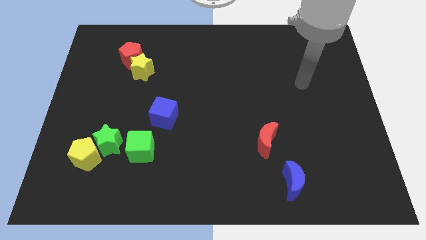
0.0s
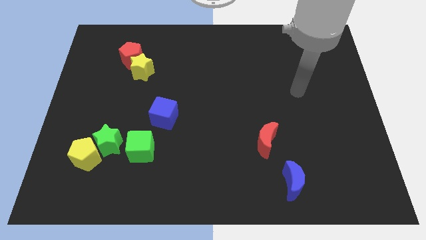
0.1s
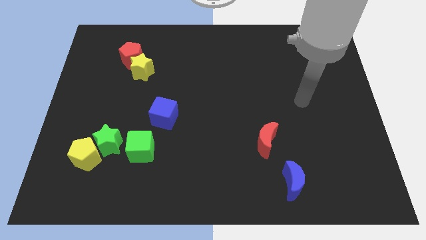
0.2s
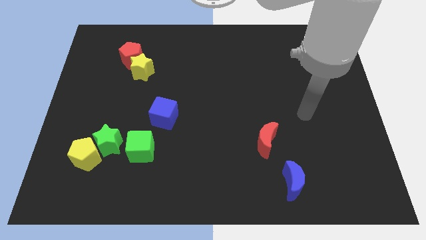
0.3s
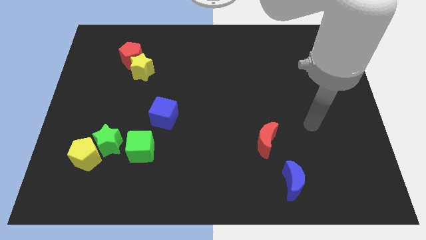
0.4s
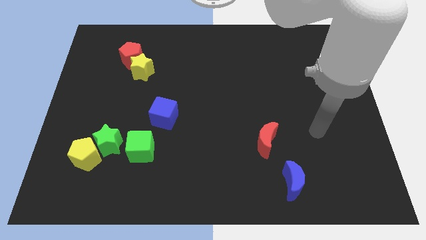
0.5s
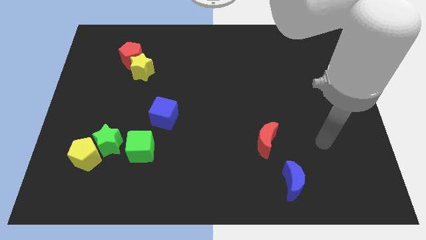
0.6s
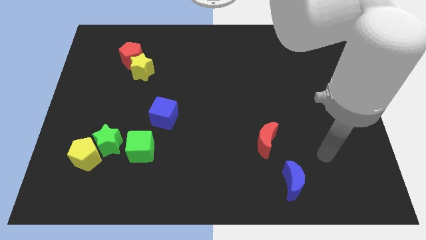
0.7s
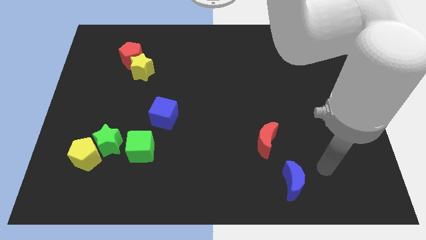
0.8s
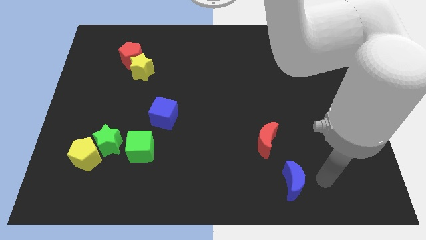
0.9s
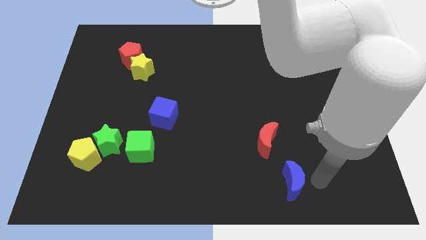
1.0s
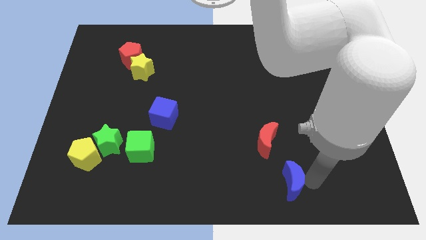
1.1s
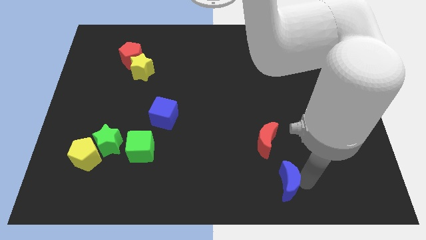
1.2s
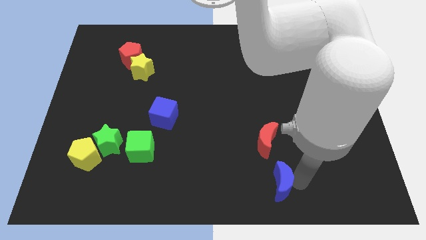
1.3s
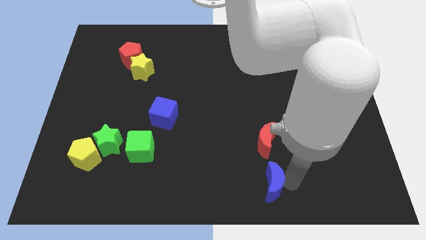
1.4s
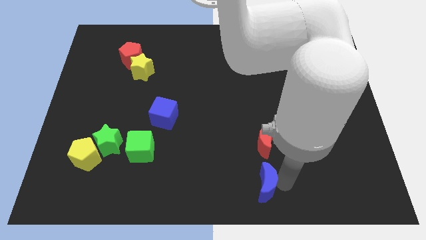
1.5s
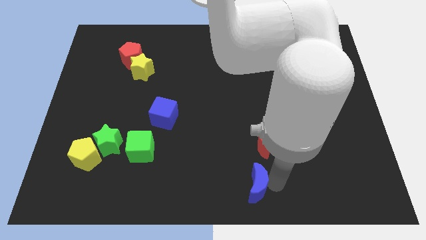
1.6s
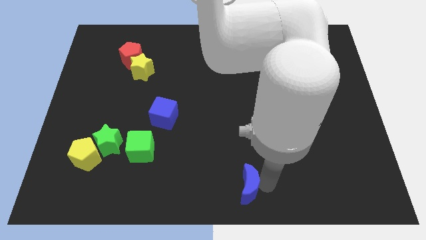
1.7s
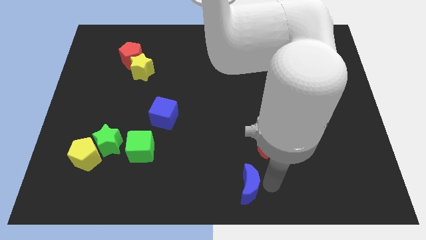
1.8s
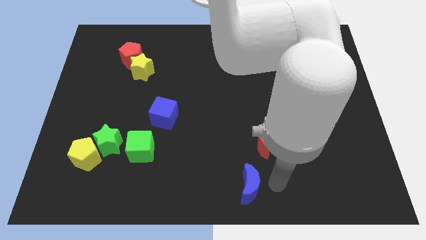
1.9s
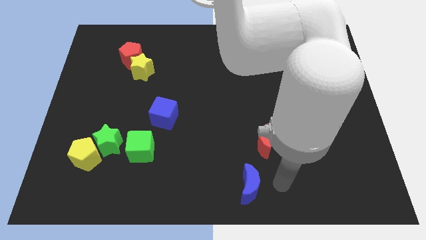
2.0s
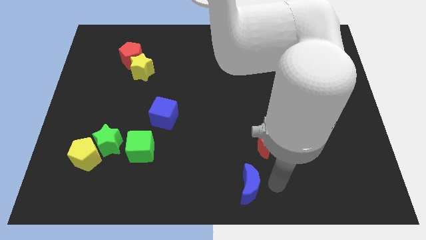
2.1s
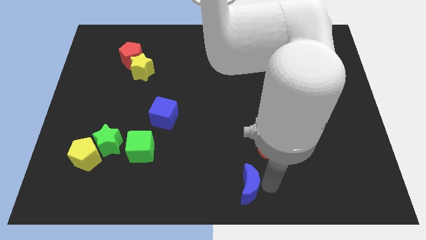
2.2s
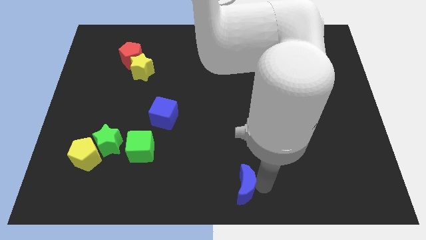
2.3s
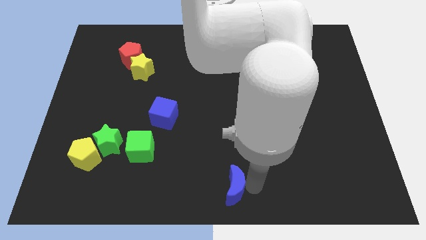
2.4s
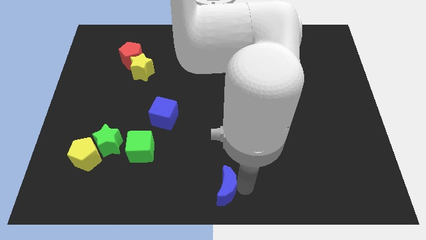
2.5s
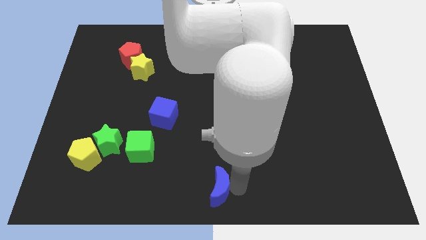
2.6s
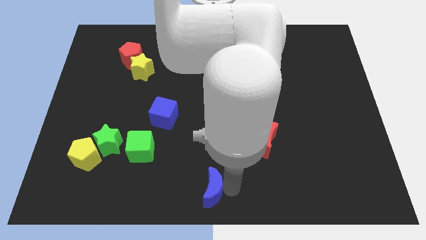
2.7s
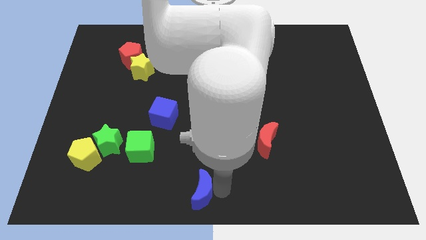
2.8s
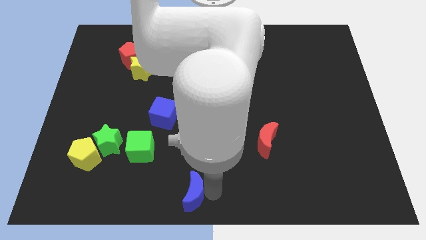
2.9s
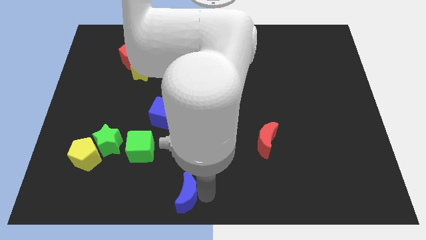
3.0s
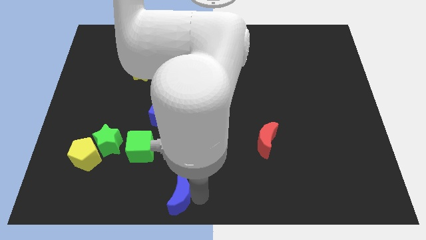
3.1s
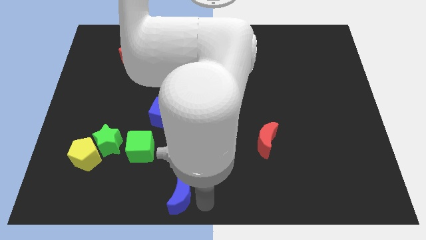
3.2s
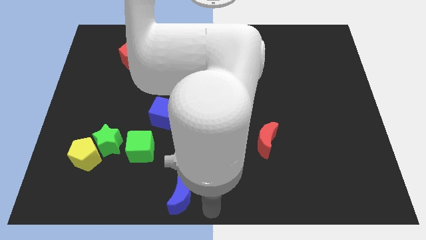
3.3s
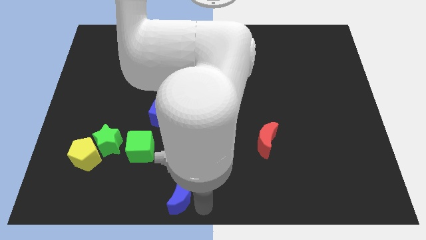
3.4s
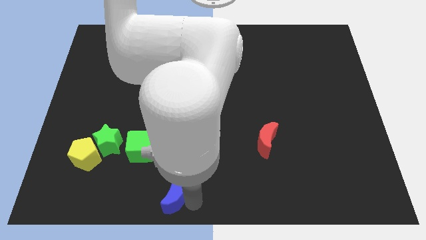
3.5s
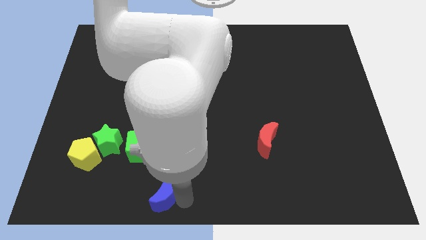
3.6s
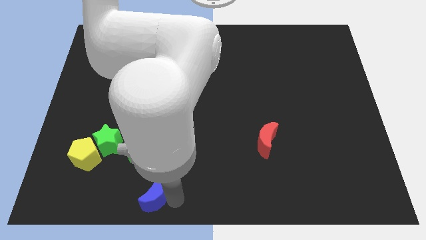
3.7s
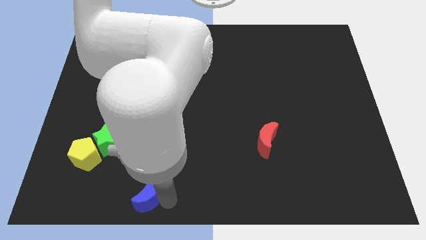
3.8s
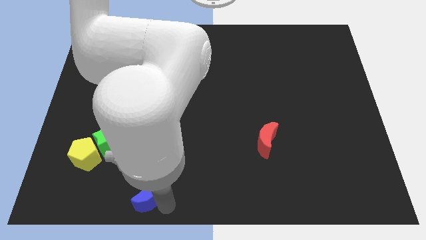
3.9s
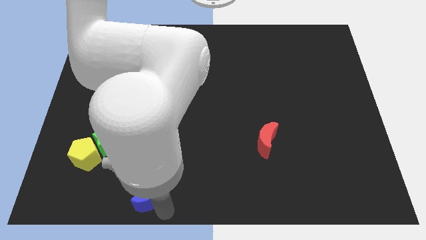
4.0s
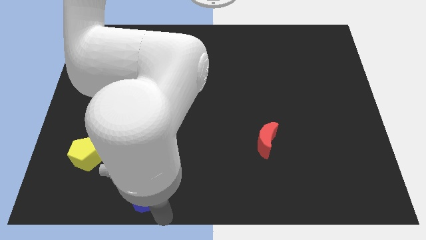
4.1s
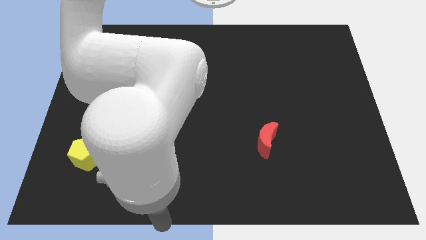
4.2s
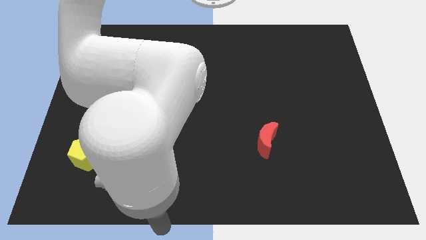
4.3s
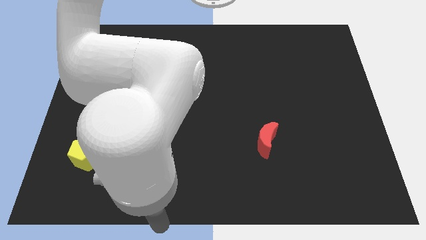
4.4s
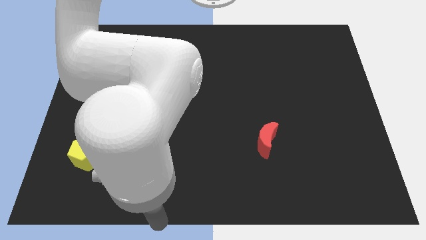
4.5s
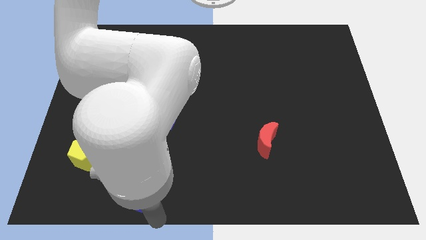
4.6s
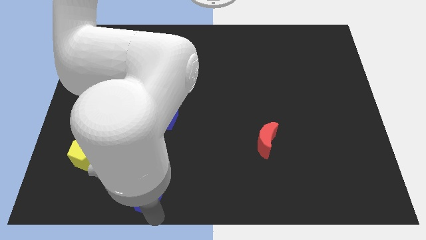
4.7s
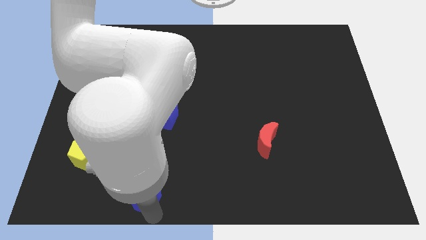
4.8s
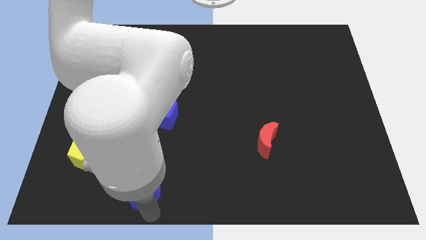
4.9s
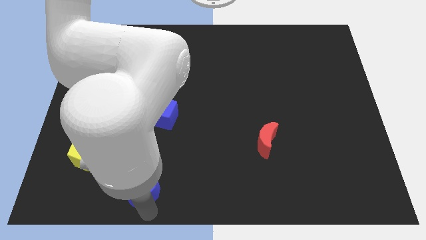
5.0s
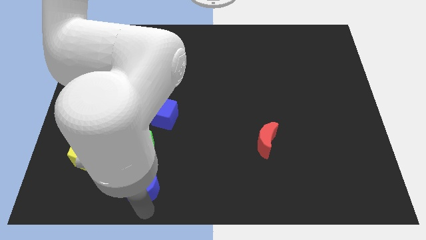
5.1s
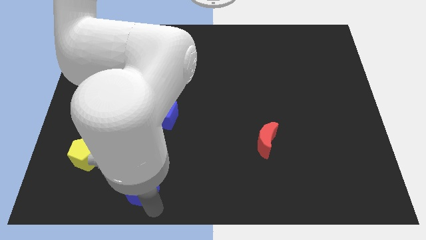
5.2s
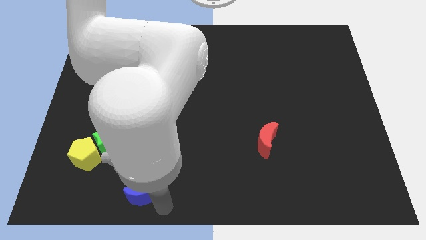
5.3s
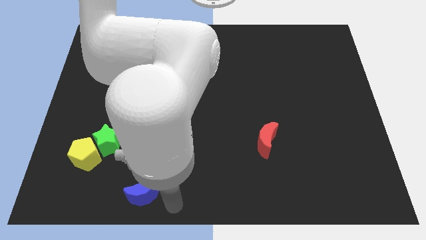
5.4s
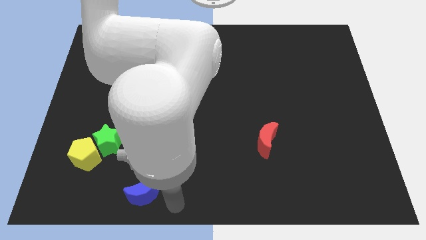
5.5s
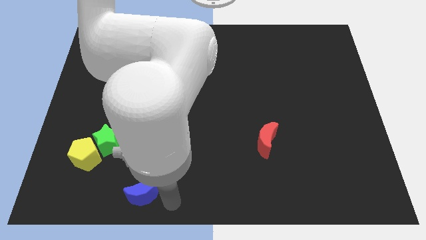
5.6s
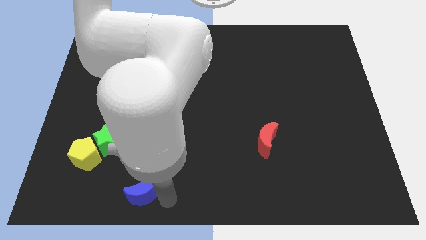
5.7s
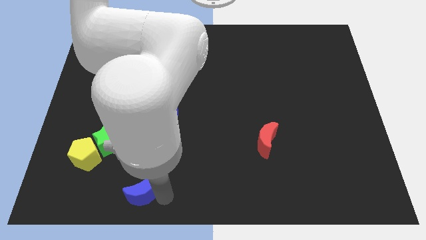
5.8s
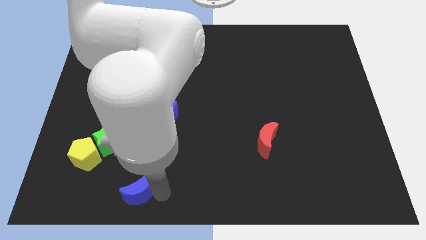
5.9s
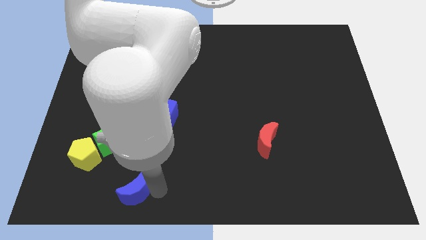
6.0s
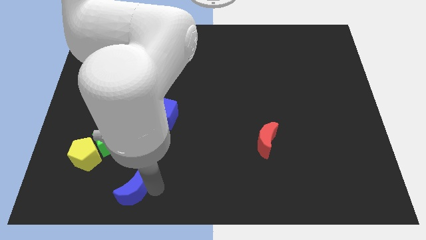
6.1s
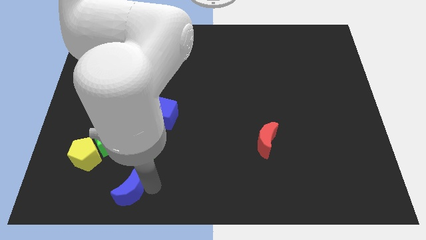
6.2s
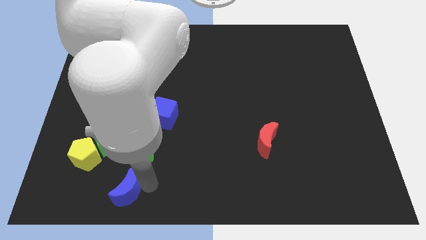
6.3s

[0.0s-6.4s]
move the blue moon to the bottom right side of the yellow pentagon

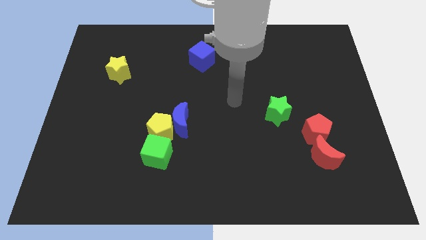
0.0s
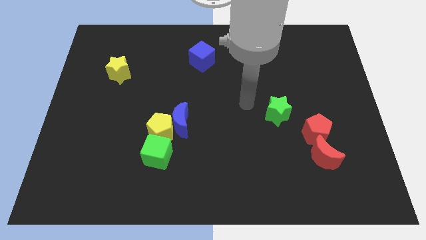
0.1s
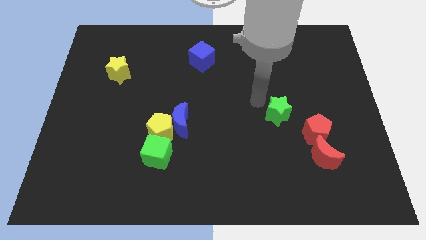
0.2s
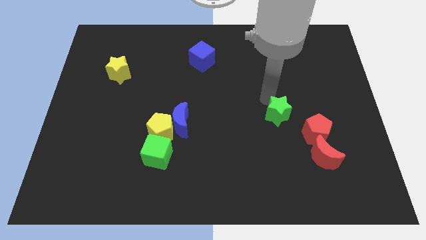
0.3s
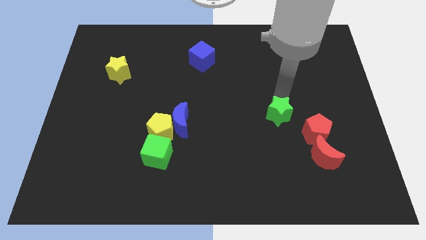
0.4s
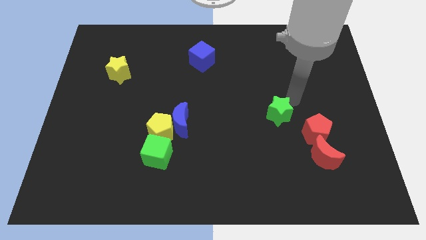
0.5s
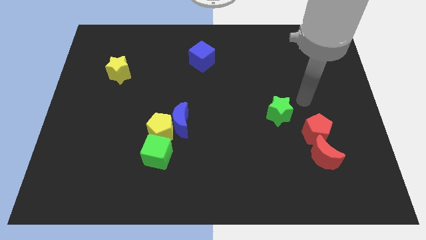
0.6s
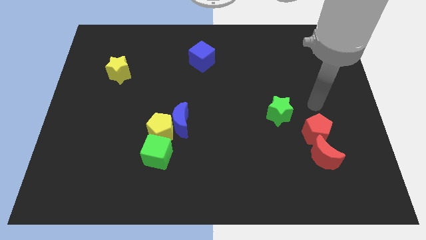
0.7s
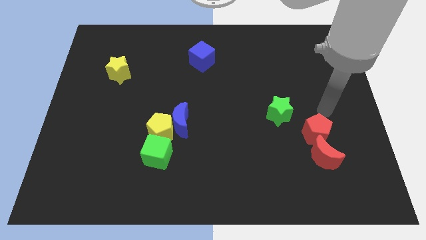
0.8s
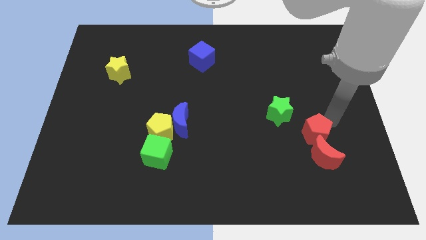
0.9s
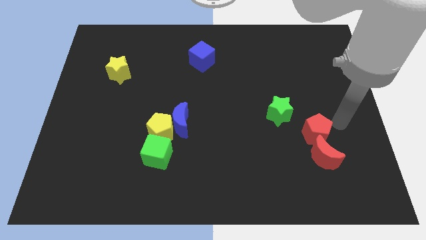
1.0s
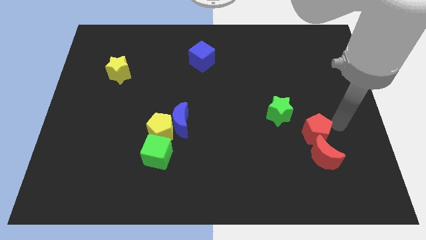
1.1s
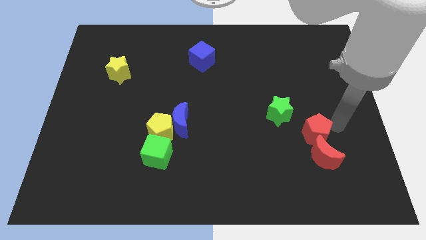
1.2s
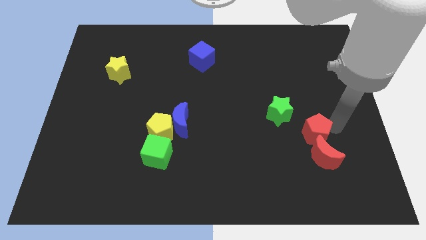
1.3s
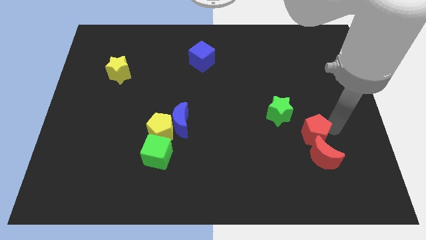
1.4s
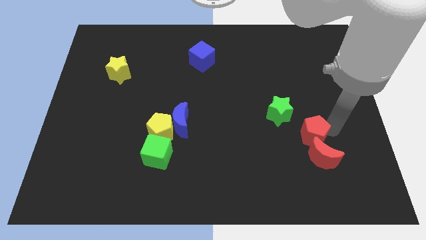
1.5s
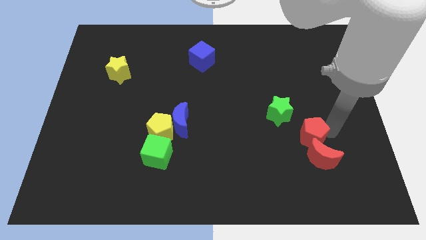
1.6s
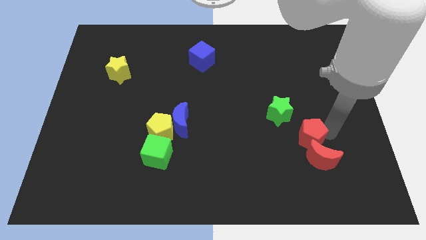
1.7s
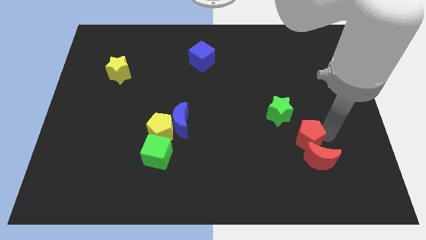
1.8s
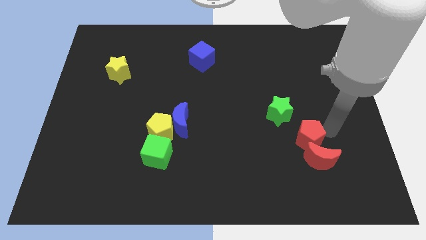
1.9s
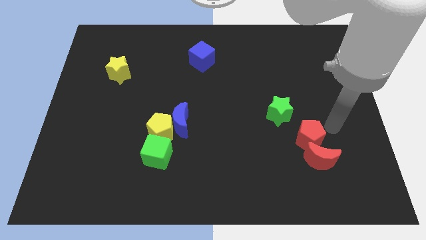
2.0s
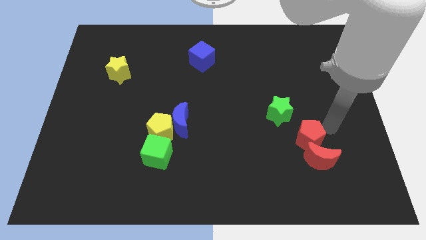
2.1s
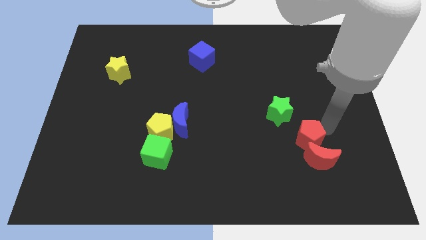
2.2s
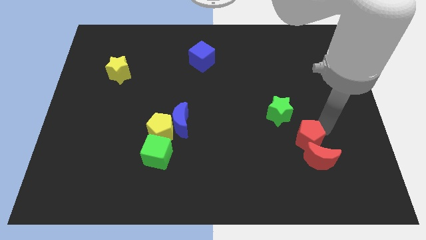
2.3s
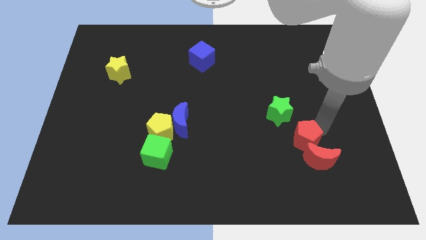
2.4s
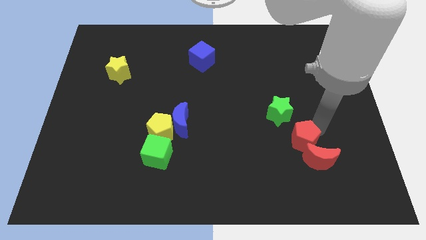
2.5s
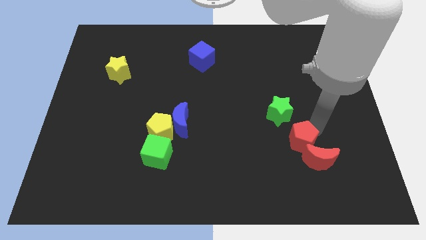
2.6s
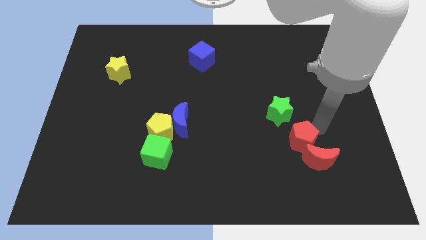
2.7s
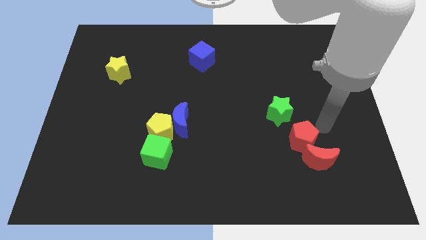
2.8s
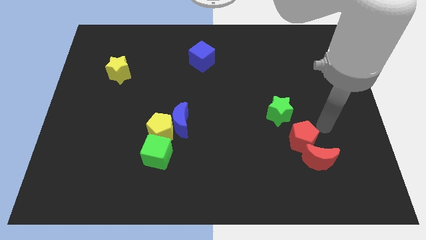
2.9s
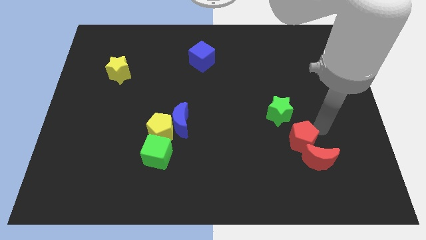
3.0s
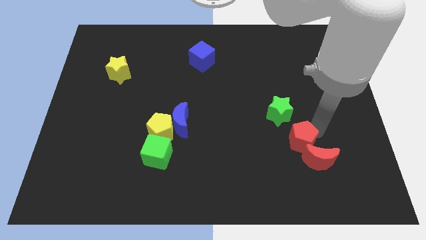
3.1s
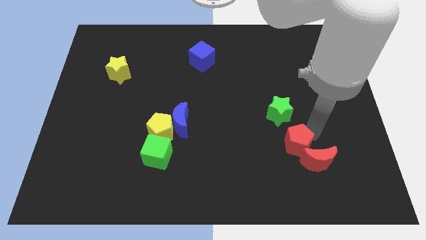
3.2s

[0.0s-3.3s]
move the red pentagon to the left side of the red moon
